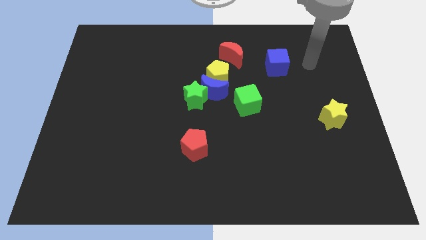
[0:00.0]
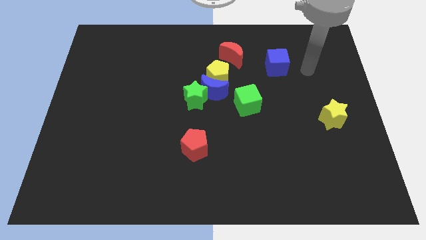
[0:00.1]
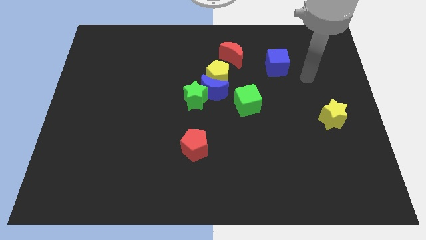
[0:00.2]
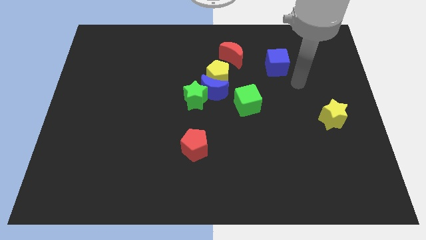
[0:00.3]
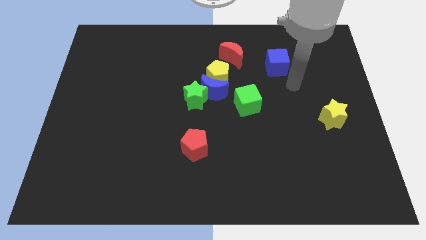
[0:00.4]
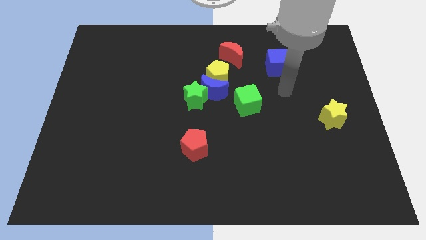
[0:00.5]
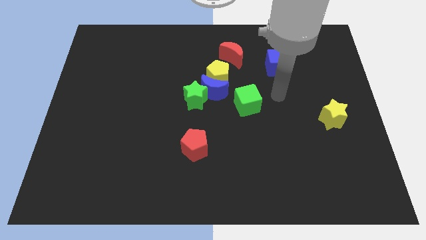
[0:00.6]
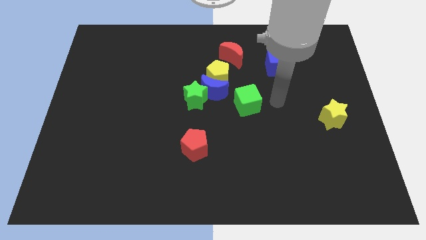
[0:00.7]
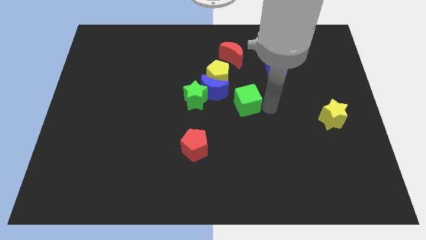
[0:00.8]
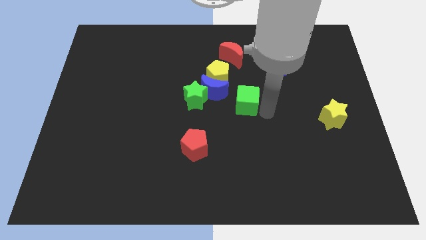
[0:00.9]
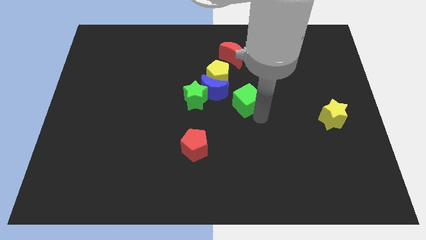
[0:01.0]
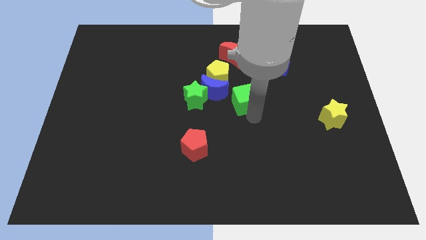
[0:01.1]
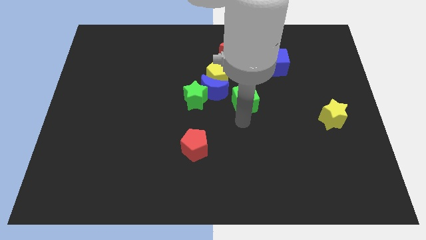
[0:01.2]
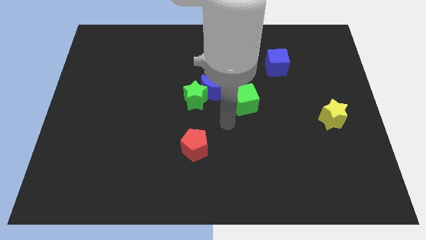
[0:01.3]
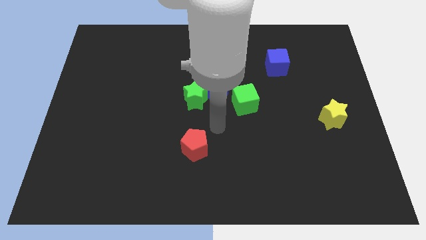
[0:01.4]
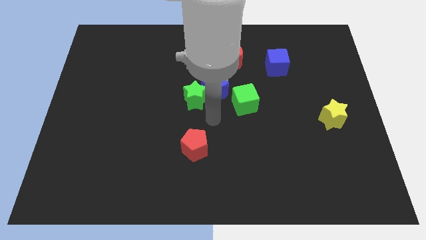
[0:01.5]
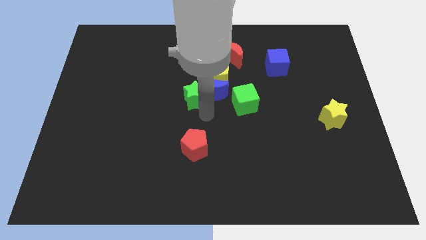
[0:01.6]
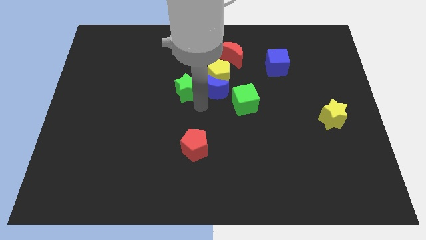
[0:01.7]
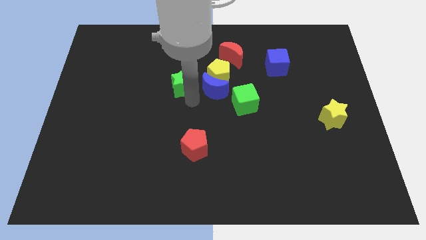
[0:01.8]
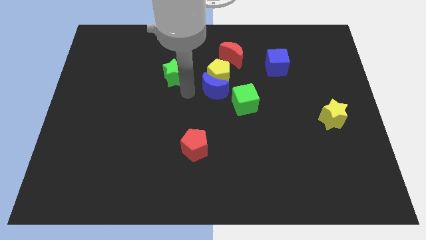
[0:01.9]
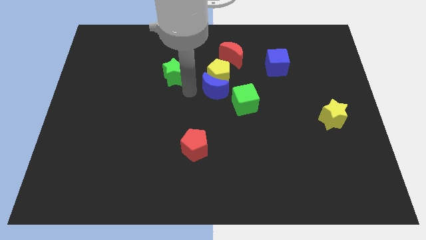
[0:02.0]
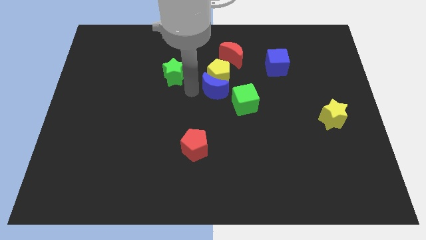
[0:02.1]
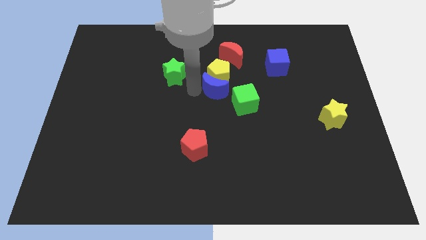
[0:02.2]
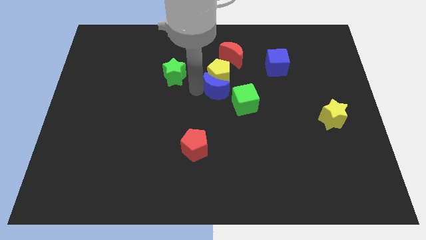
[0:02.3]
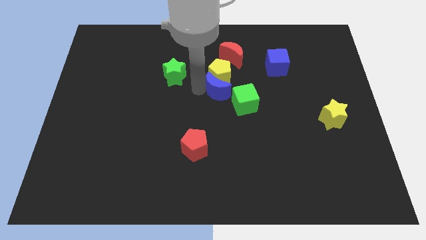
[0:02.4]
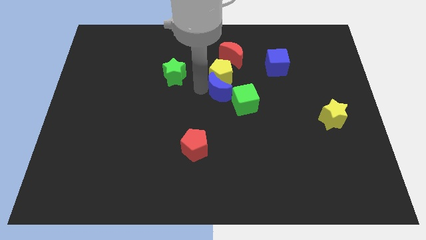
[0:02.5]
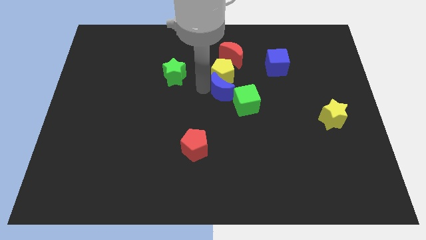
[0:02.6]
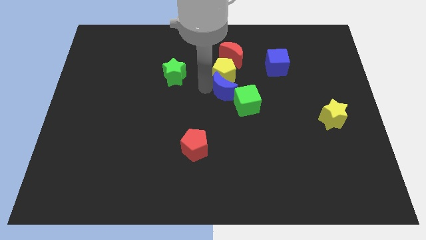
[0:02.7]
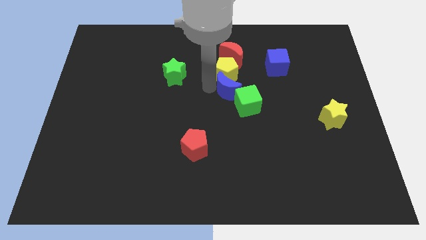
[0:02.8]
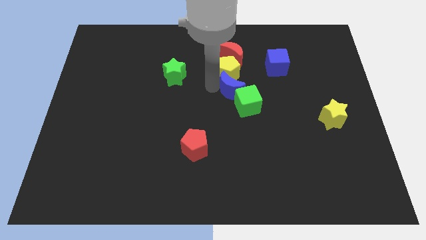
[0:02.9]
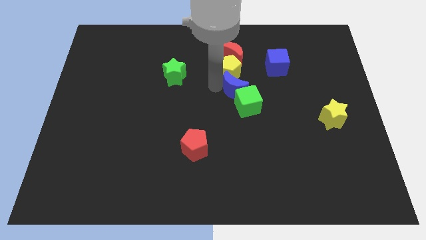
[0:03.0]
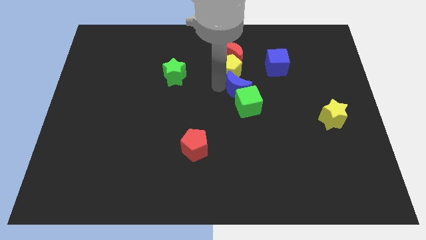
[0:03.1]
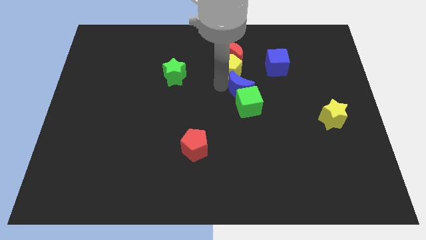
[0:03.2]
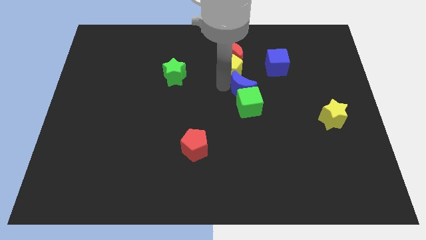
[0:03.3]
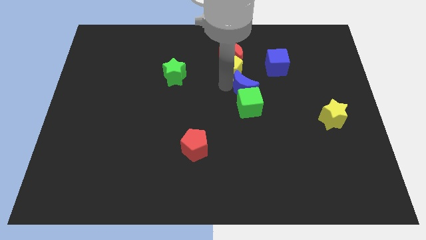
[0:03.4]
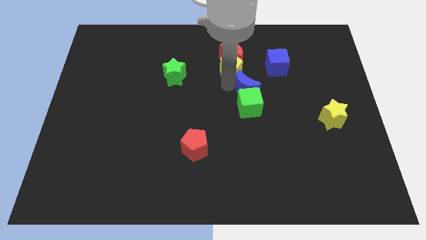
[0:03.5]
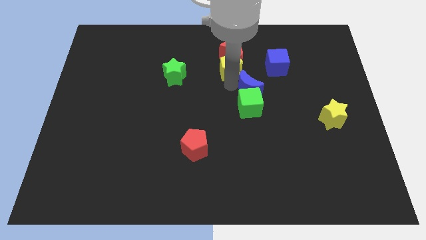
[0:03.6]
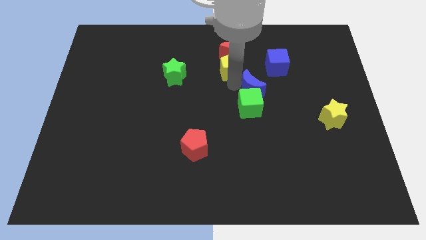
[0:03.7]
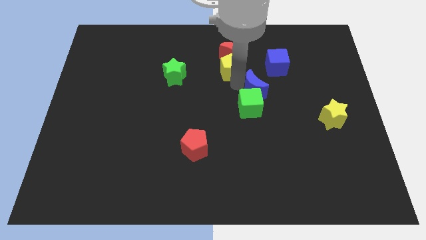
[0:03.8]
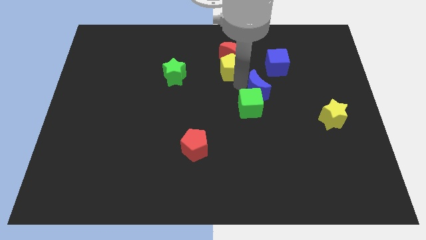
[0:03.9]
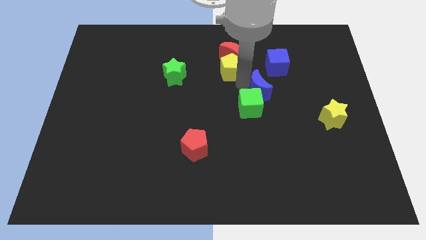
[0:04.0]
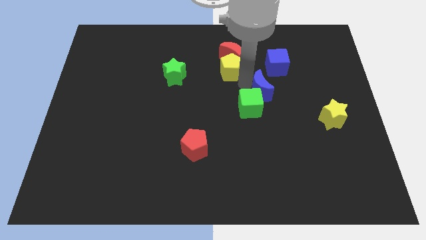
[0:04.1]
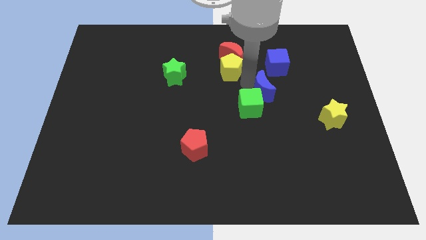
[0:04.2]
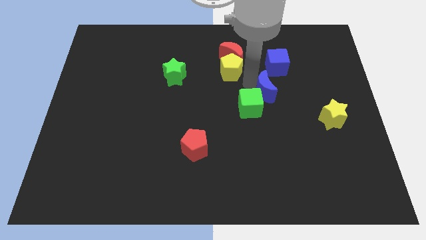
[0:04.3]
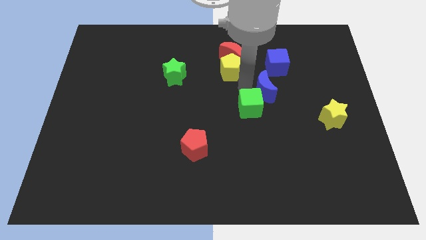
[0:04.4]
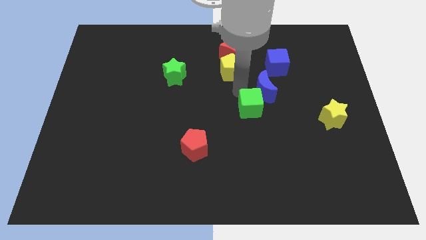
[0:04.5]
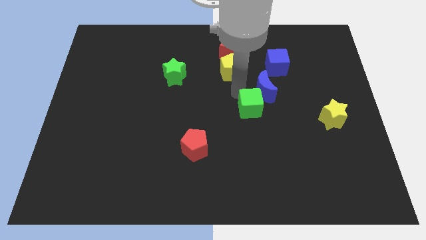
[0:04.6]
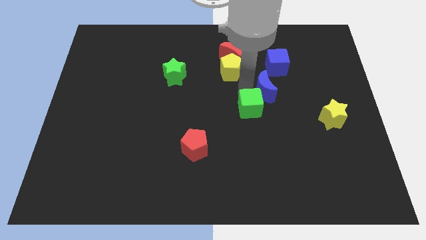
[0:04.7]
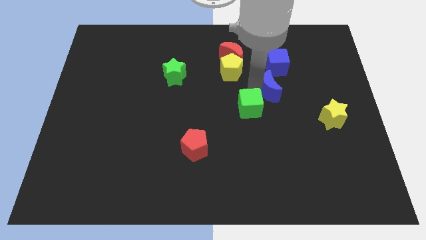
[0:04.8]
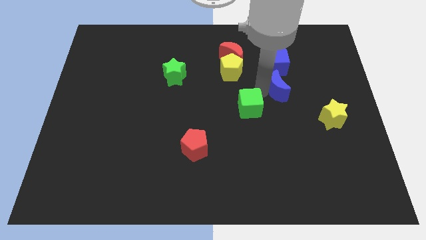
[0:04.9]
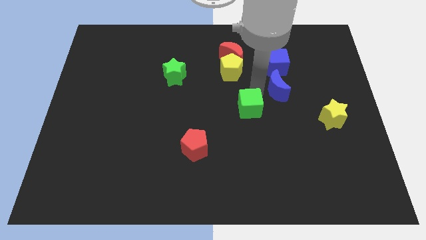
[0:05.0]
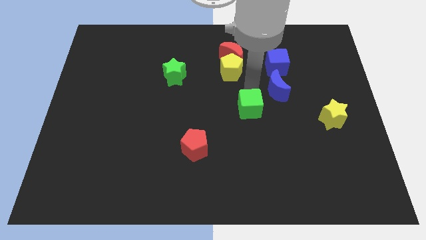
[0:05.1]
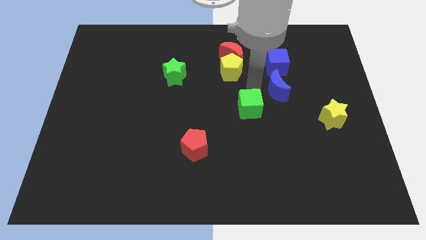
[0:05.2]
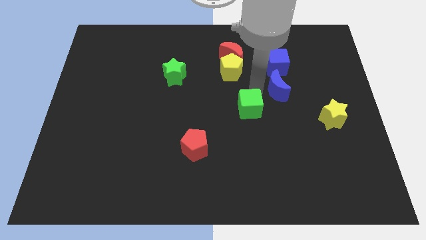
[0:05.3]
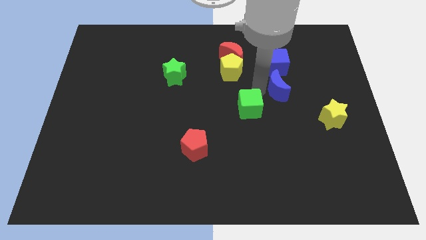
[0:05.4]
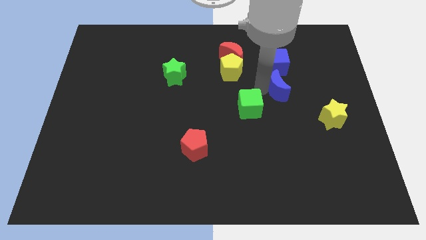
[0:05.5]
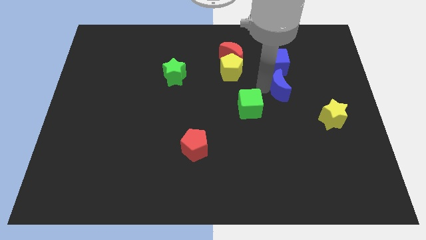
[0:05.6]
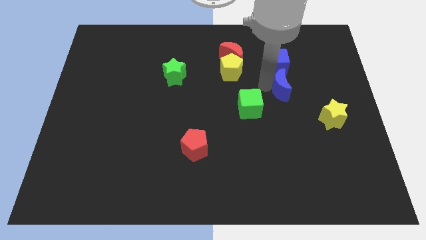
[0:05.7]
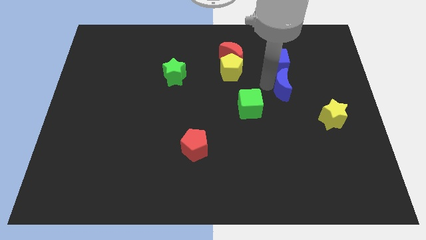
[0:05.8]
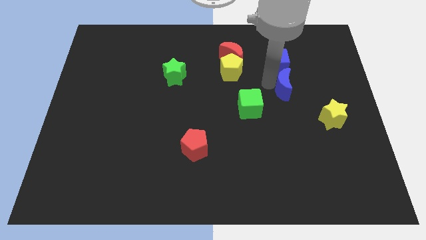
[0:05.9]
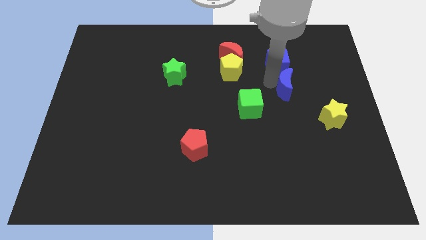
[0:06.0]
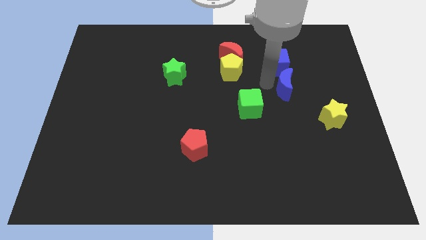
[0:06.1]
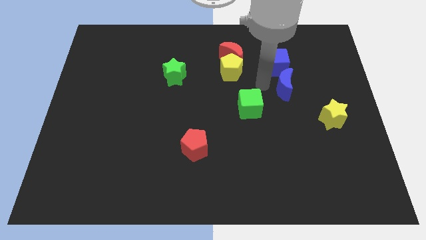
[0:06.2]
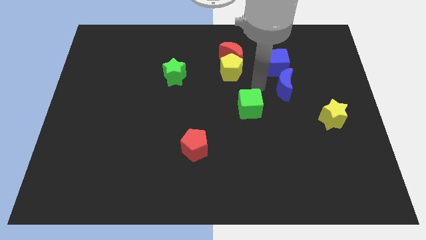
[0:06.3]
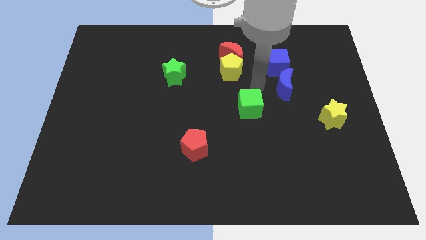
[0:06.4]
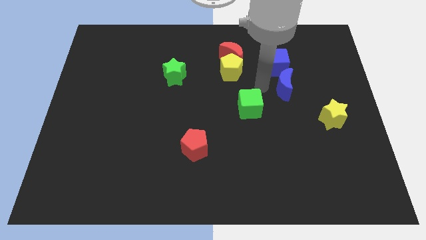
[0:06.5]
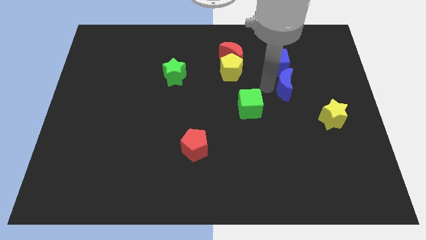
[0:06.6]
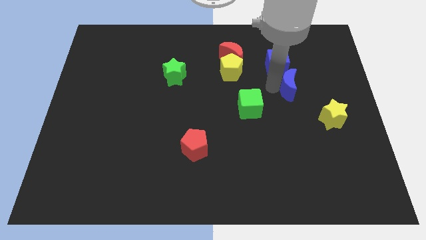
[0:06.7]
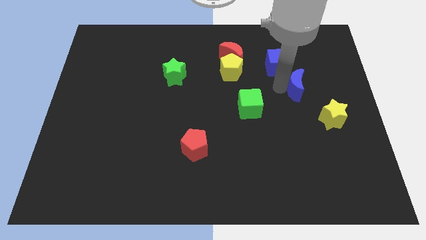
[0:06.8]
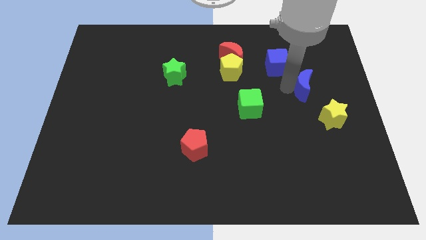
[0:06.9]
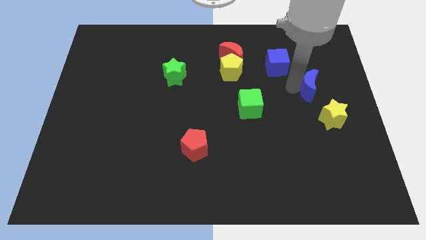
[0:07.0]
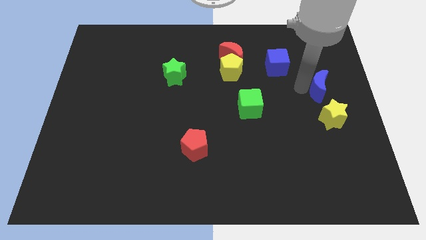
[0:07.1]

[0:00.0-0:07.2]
move the blue moon to the right side
